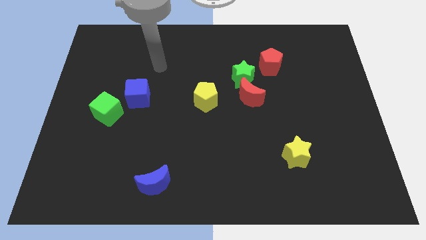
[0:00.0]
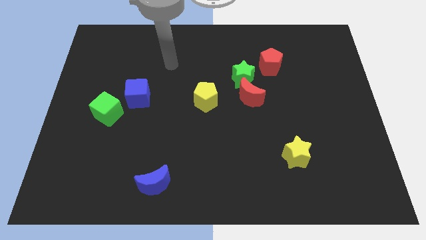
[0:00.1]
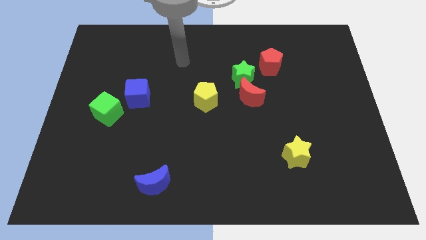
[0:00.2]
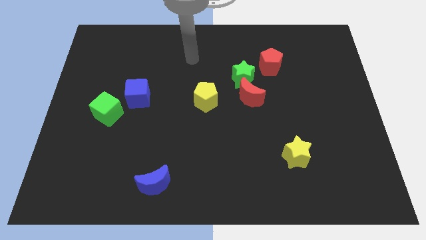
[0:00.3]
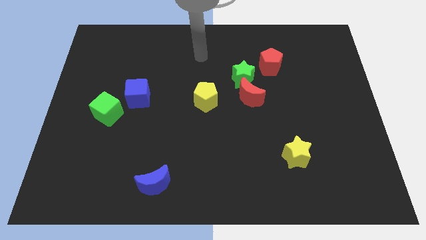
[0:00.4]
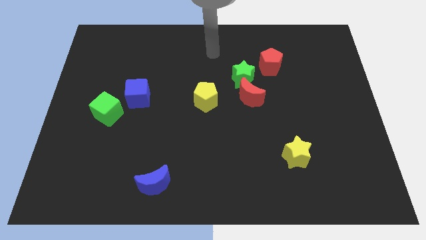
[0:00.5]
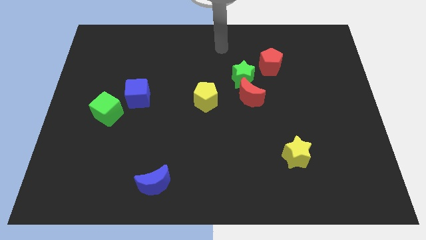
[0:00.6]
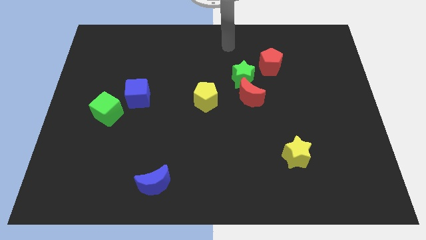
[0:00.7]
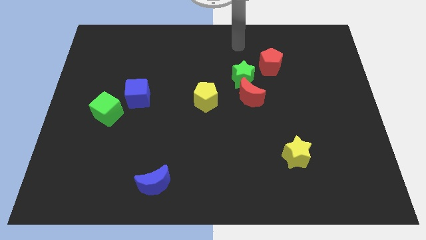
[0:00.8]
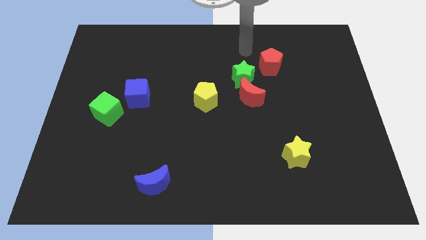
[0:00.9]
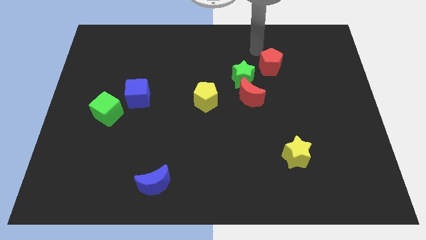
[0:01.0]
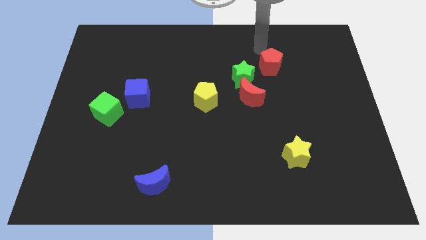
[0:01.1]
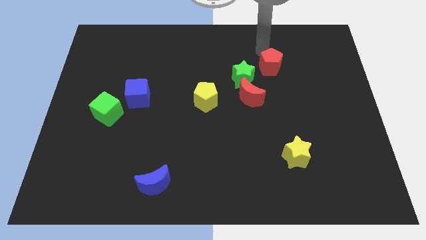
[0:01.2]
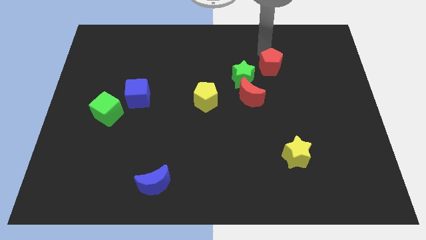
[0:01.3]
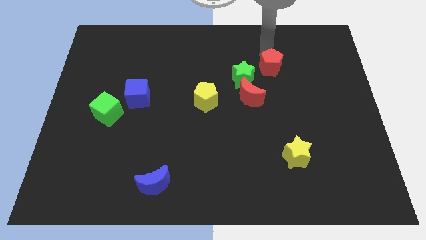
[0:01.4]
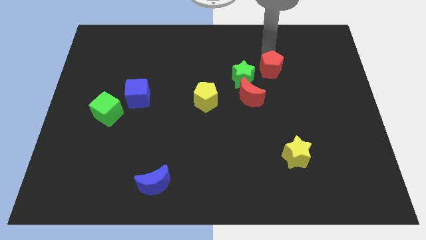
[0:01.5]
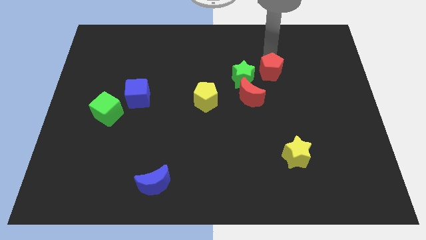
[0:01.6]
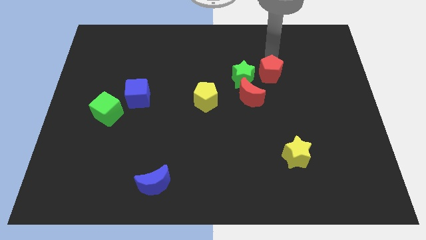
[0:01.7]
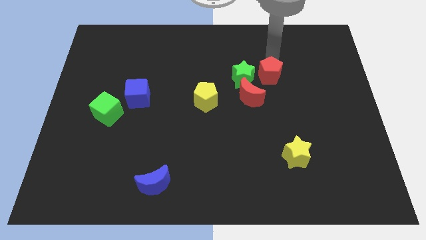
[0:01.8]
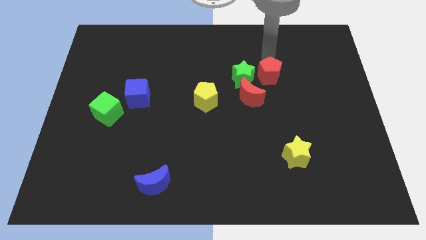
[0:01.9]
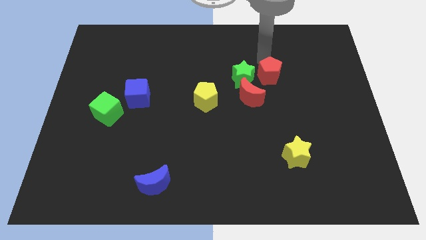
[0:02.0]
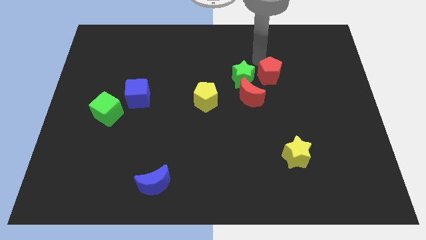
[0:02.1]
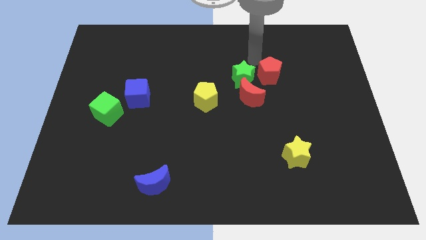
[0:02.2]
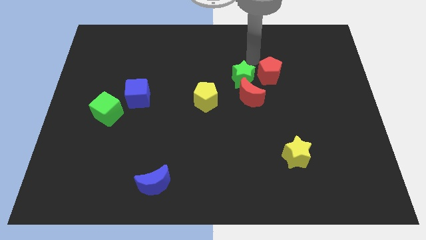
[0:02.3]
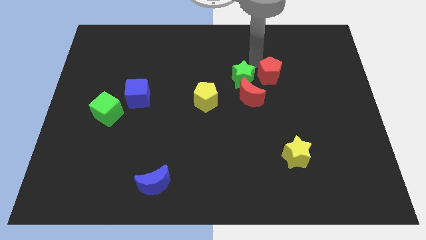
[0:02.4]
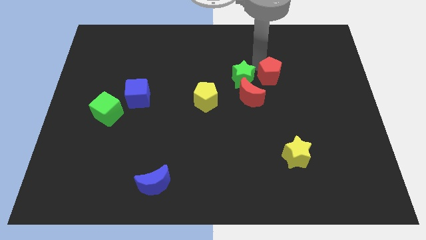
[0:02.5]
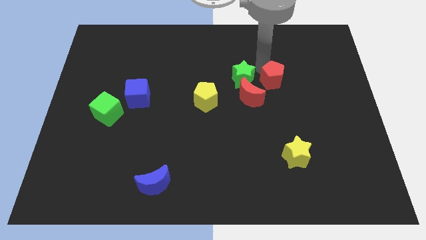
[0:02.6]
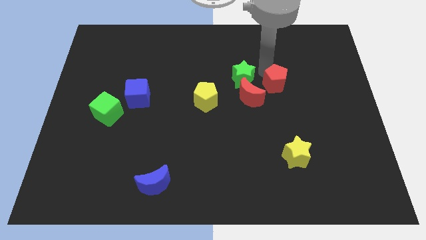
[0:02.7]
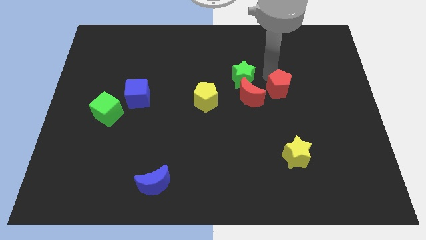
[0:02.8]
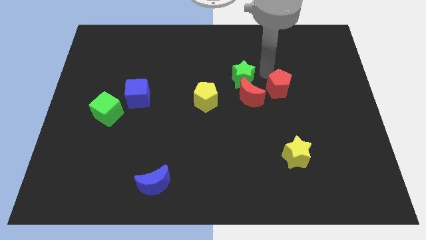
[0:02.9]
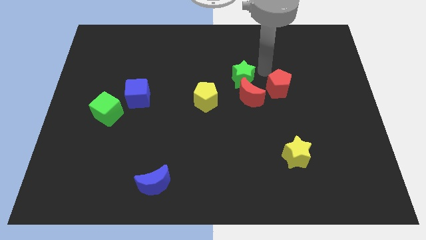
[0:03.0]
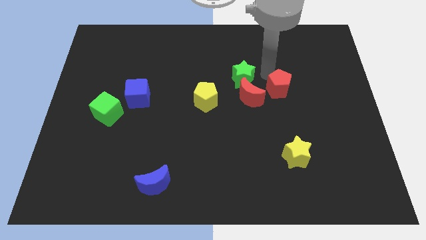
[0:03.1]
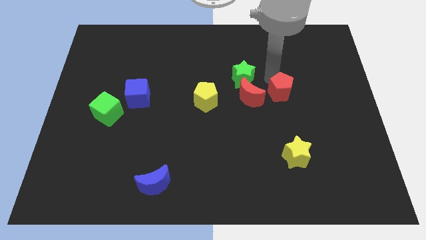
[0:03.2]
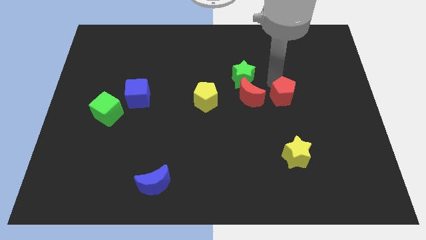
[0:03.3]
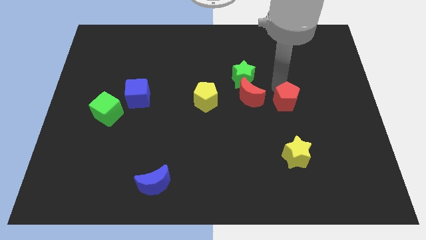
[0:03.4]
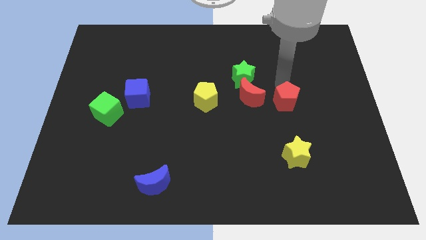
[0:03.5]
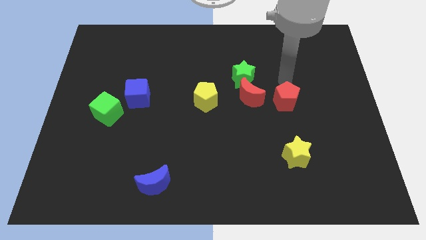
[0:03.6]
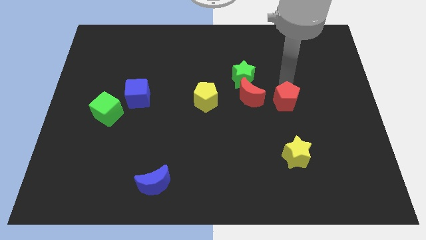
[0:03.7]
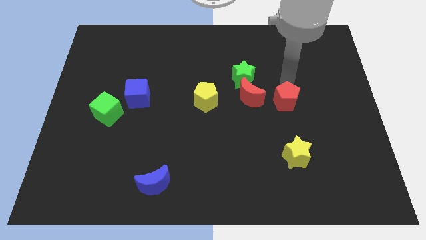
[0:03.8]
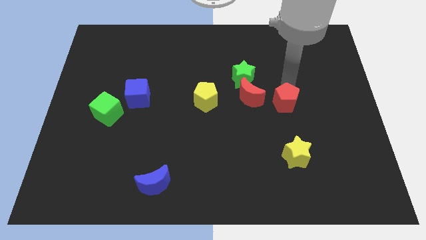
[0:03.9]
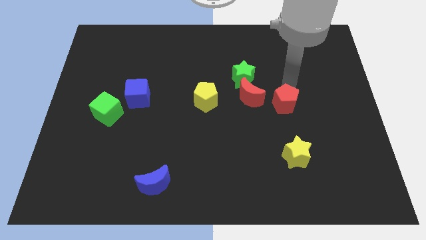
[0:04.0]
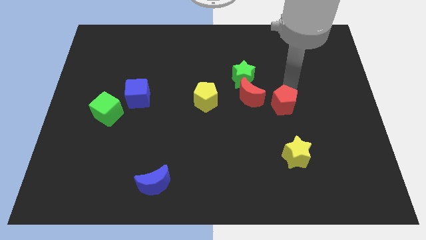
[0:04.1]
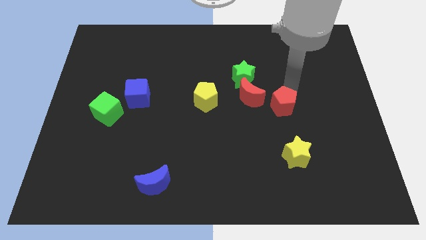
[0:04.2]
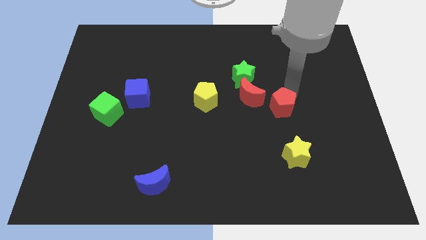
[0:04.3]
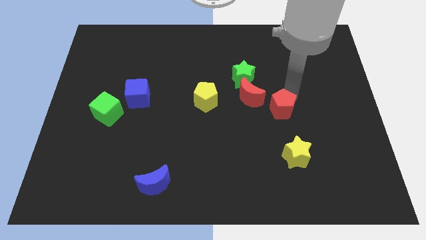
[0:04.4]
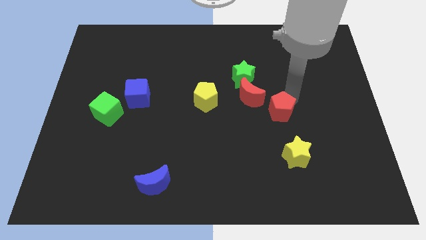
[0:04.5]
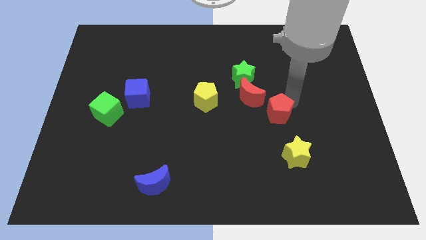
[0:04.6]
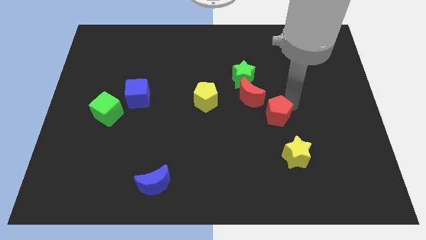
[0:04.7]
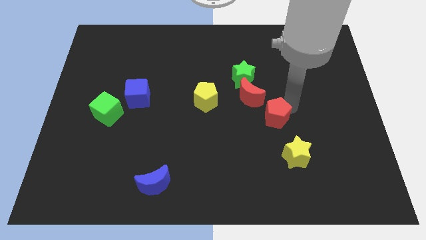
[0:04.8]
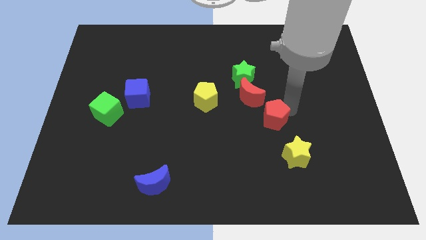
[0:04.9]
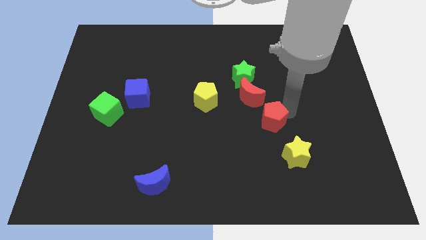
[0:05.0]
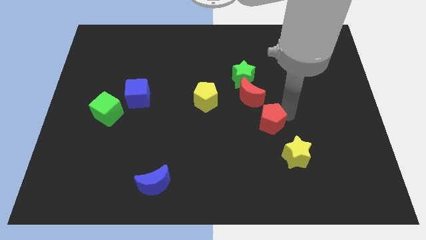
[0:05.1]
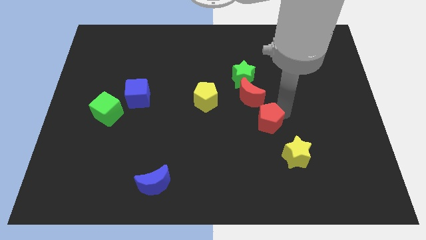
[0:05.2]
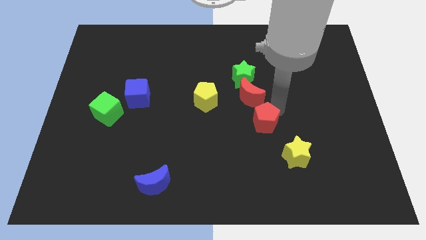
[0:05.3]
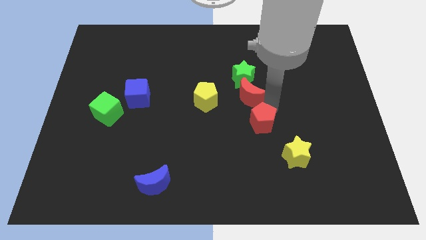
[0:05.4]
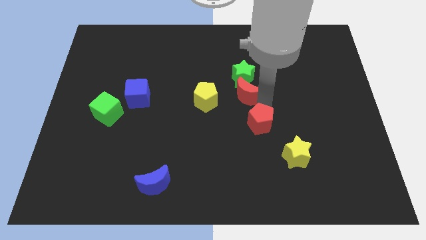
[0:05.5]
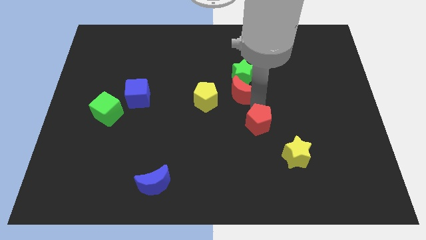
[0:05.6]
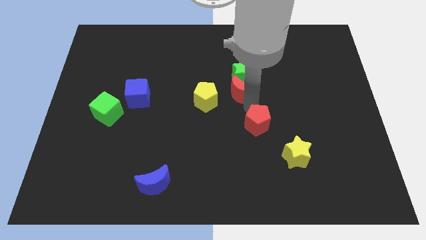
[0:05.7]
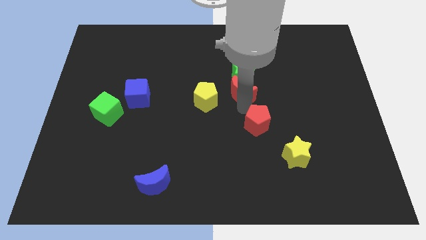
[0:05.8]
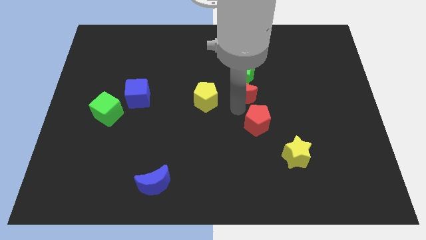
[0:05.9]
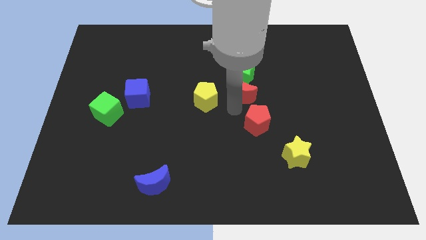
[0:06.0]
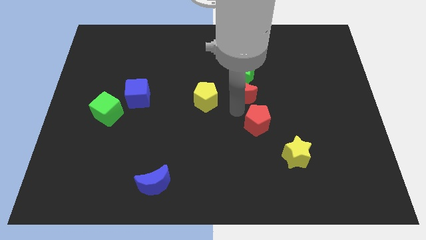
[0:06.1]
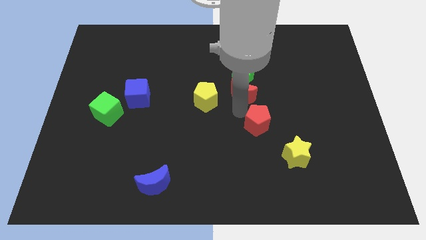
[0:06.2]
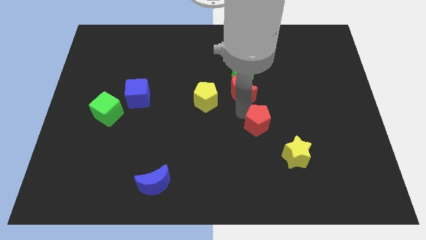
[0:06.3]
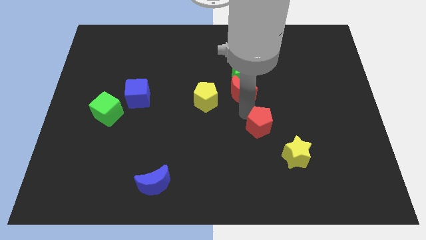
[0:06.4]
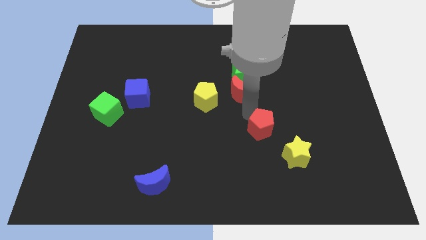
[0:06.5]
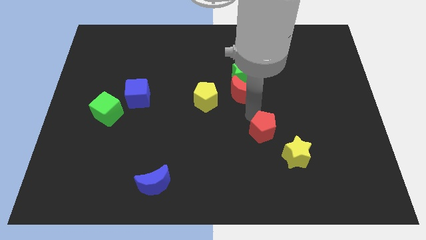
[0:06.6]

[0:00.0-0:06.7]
push the red pentagon downwards

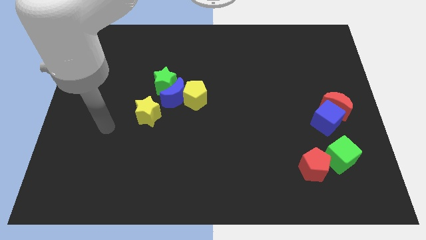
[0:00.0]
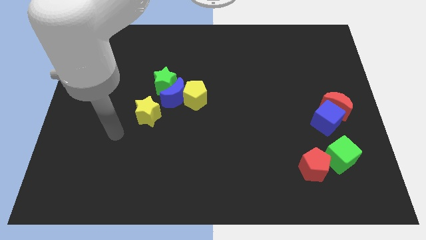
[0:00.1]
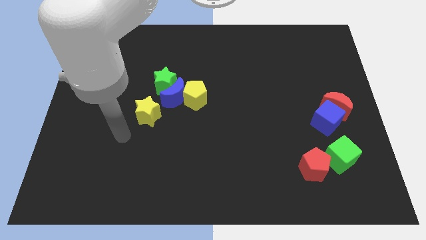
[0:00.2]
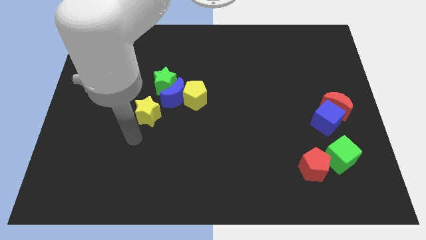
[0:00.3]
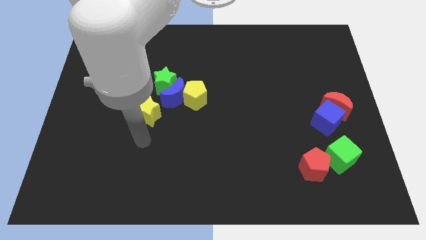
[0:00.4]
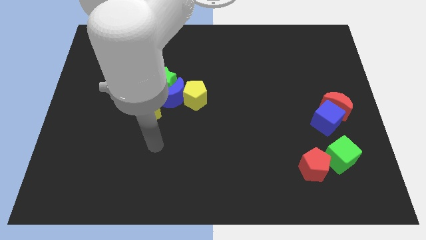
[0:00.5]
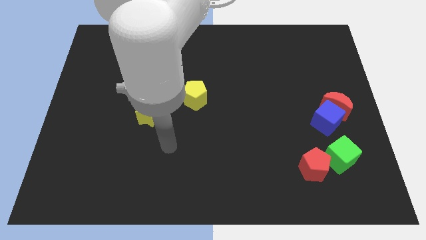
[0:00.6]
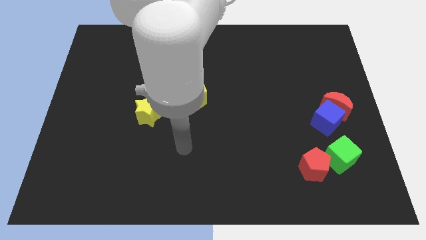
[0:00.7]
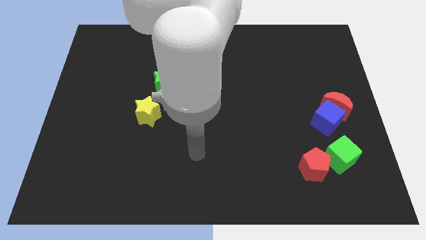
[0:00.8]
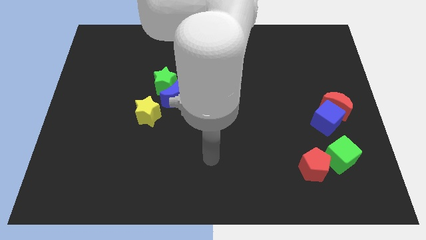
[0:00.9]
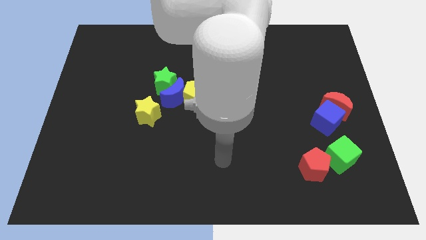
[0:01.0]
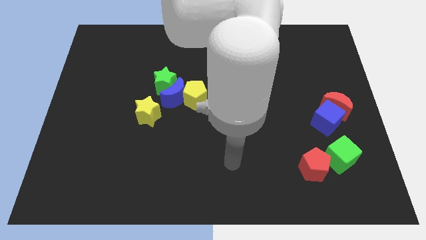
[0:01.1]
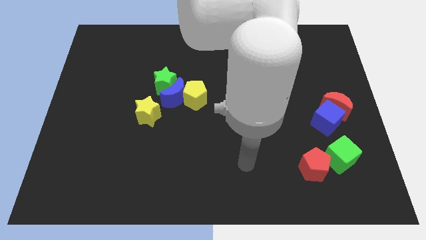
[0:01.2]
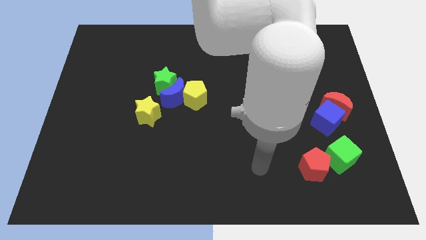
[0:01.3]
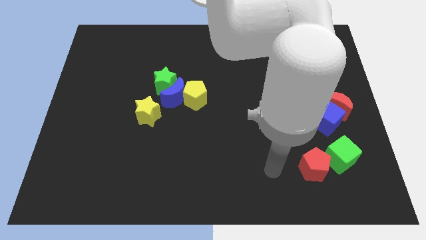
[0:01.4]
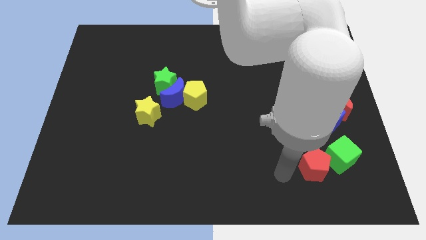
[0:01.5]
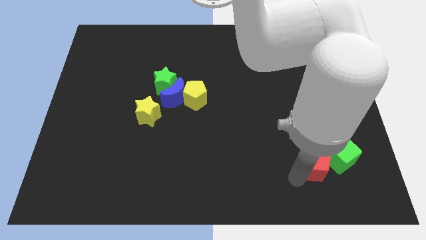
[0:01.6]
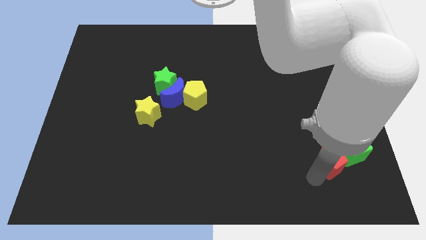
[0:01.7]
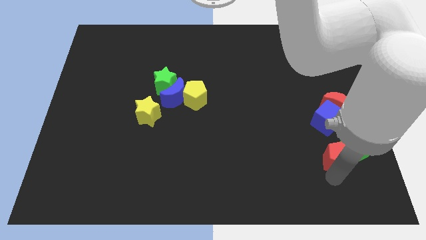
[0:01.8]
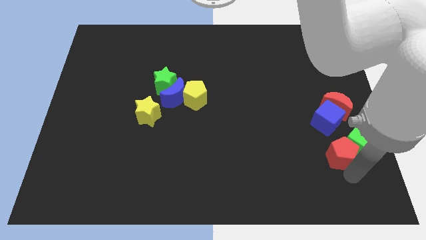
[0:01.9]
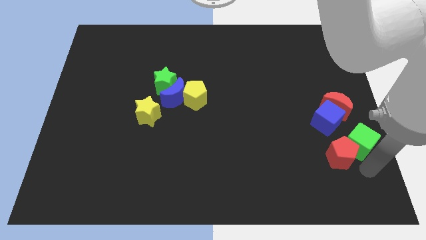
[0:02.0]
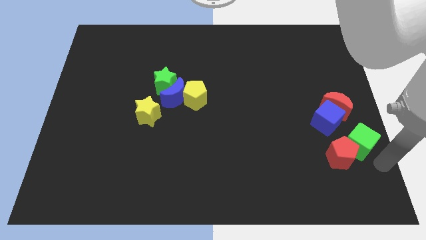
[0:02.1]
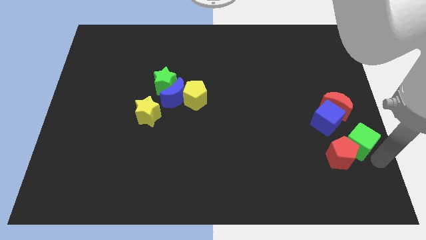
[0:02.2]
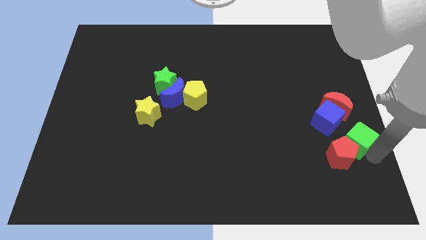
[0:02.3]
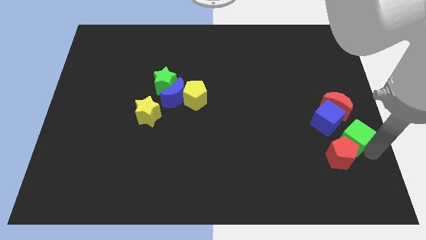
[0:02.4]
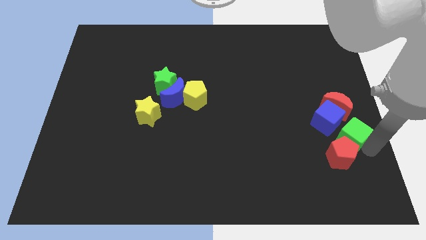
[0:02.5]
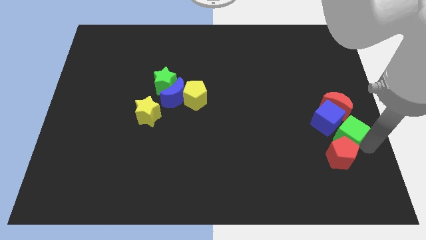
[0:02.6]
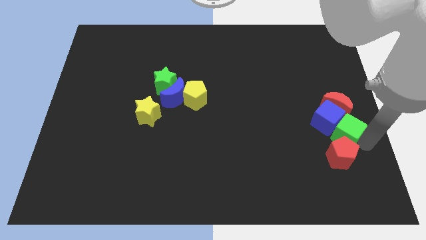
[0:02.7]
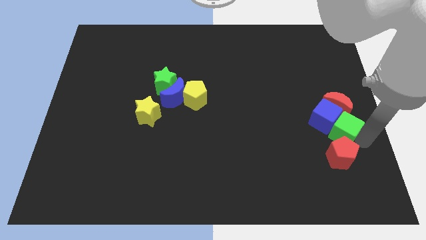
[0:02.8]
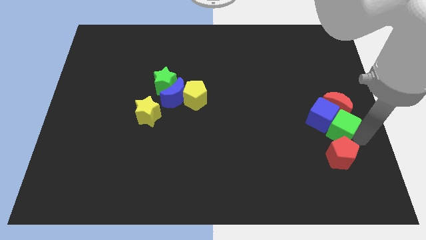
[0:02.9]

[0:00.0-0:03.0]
slide the green cube upwards a little bit
